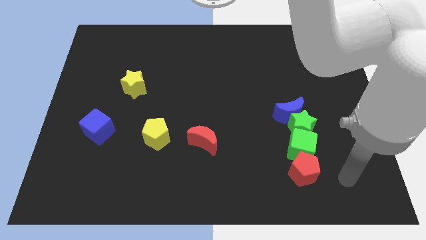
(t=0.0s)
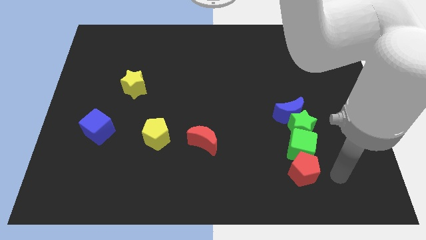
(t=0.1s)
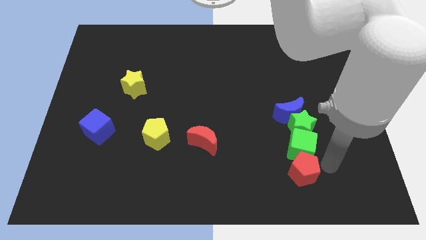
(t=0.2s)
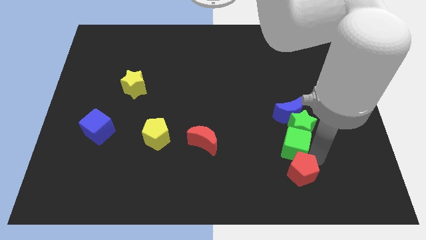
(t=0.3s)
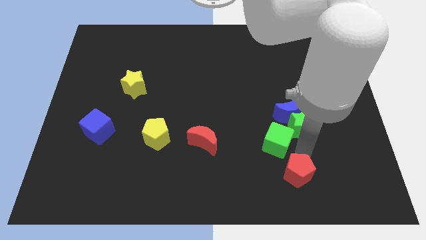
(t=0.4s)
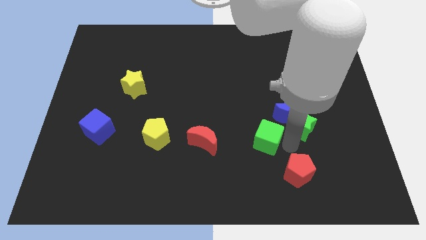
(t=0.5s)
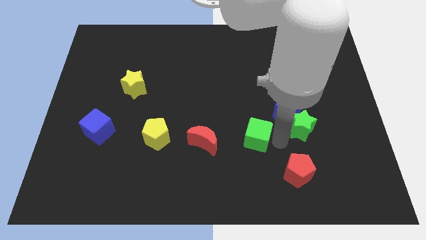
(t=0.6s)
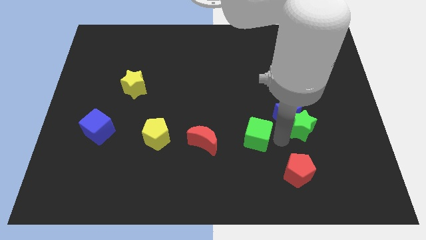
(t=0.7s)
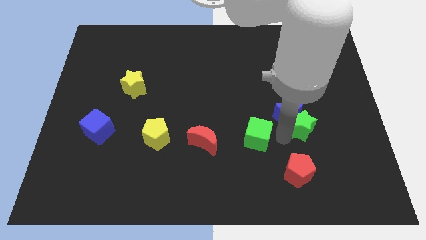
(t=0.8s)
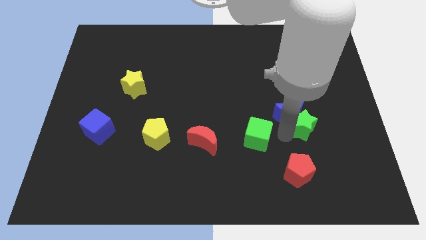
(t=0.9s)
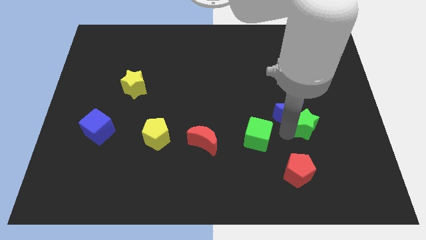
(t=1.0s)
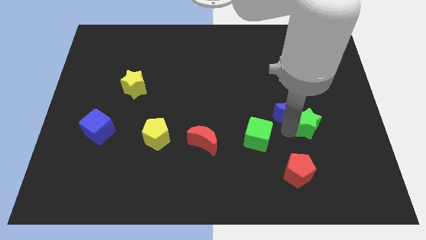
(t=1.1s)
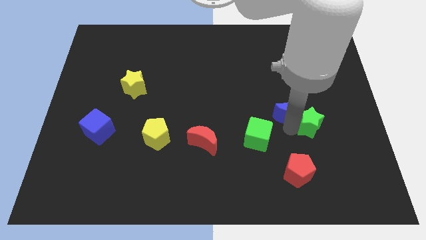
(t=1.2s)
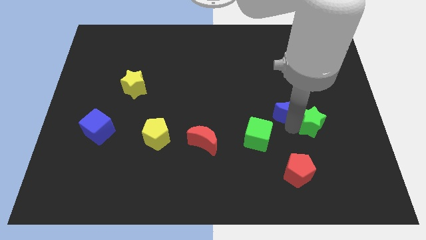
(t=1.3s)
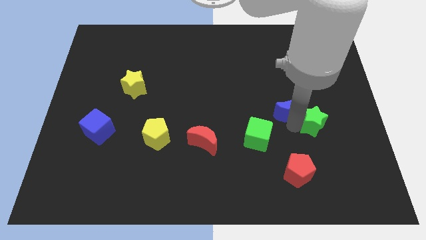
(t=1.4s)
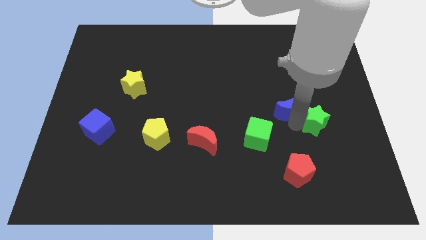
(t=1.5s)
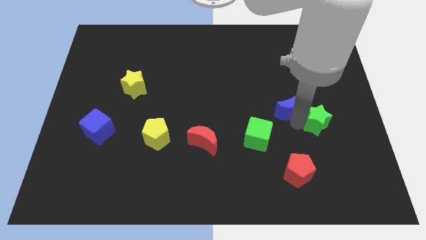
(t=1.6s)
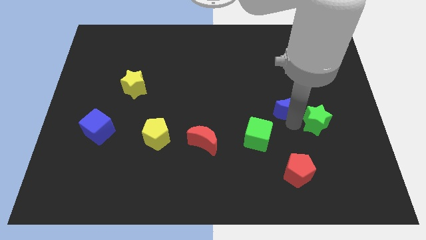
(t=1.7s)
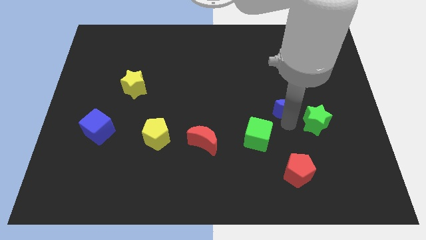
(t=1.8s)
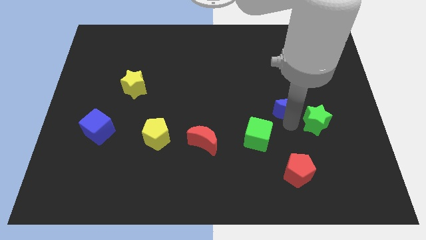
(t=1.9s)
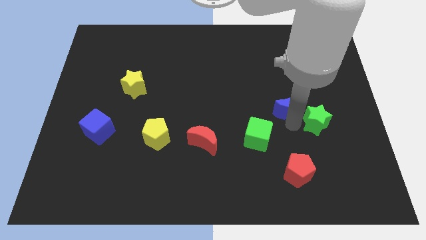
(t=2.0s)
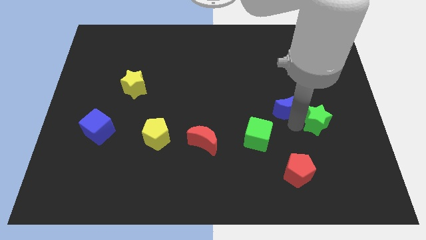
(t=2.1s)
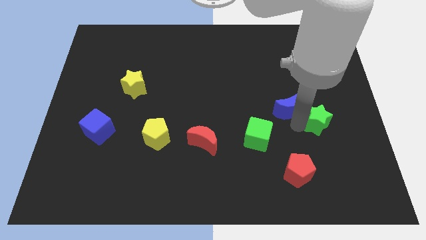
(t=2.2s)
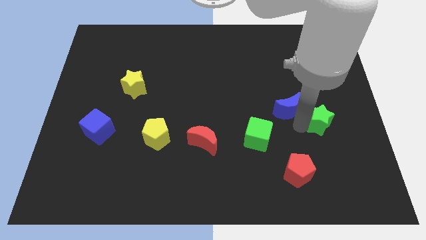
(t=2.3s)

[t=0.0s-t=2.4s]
move the green star away from the blue moon and green cube

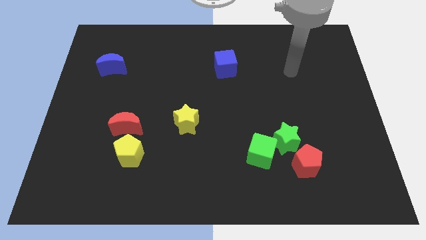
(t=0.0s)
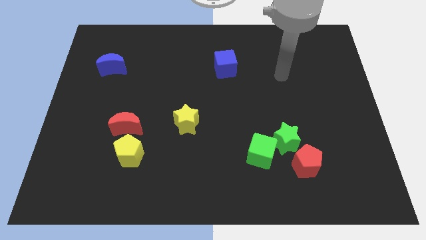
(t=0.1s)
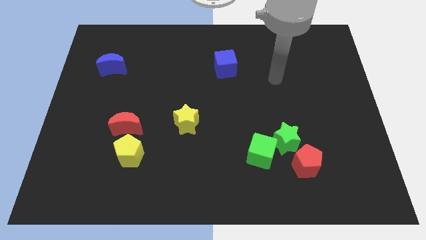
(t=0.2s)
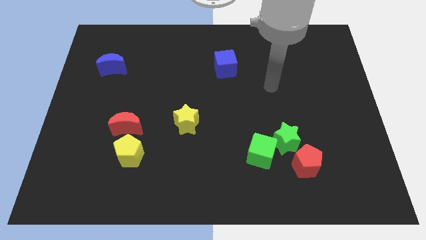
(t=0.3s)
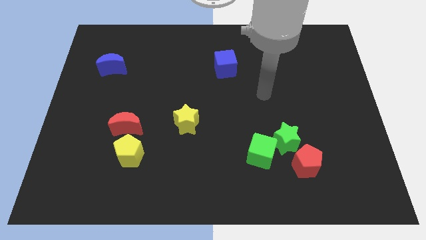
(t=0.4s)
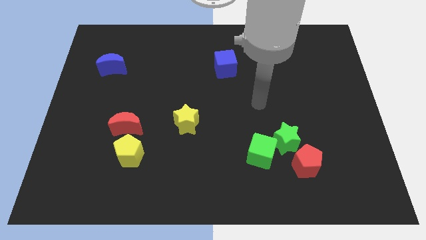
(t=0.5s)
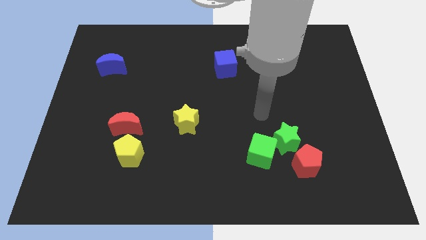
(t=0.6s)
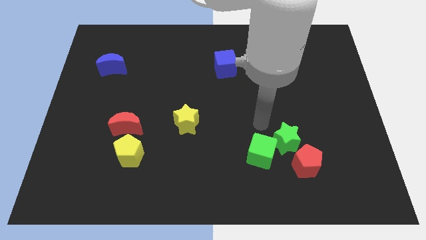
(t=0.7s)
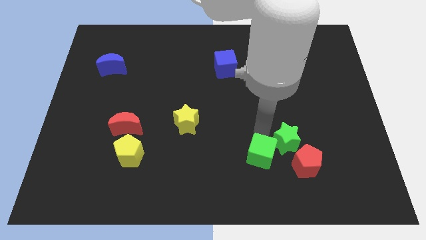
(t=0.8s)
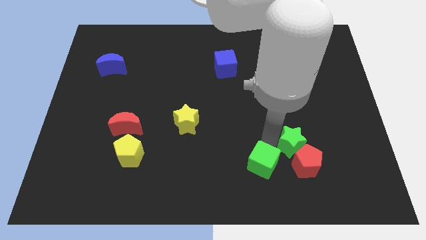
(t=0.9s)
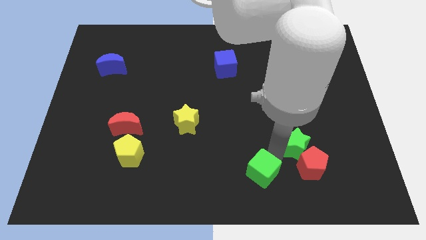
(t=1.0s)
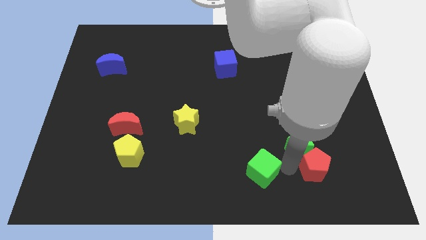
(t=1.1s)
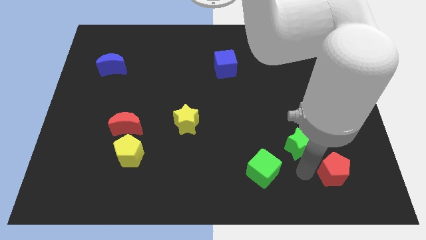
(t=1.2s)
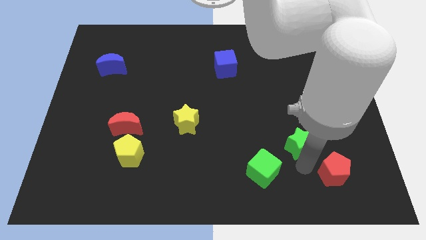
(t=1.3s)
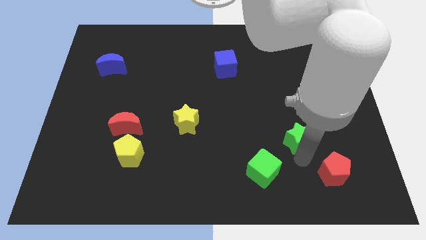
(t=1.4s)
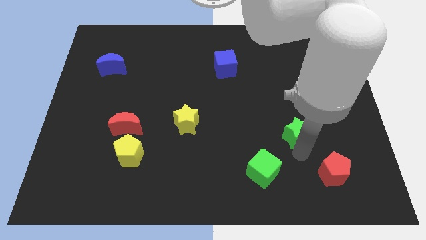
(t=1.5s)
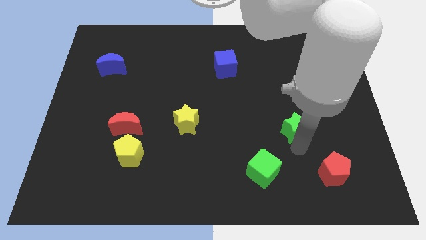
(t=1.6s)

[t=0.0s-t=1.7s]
separate the green star from the green cube and red pentagon

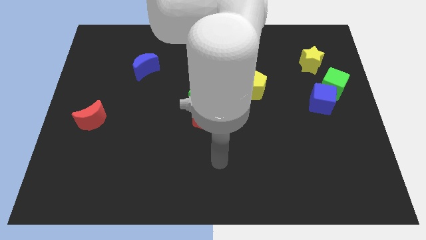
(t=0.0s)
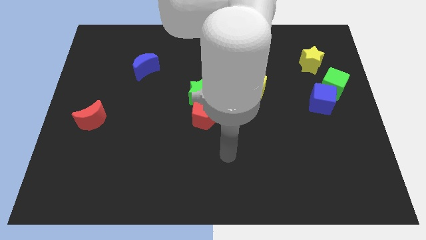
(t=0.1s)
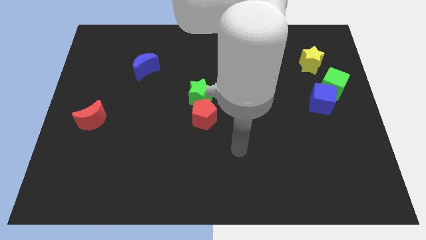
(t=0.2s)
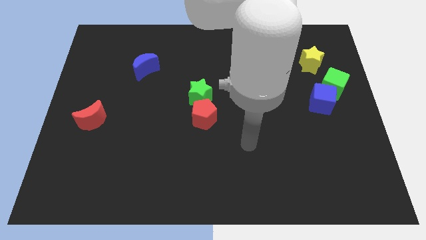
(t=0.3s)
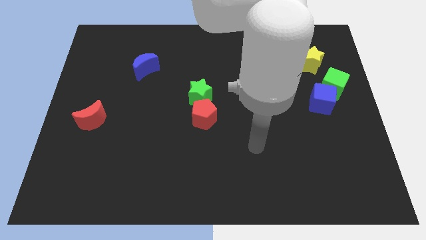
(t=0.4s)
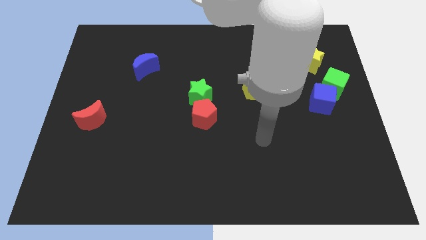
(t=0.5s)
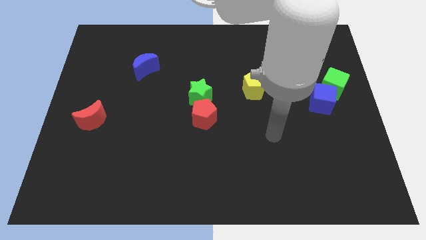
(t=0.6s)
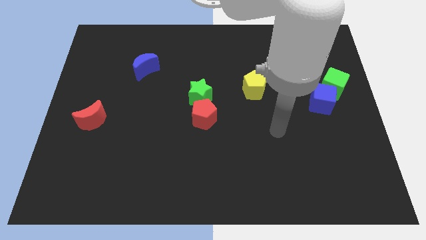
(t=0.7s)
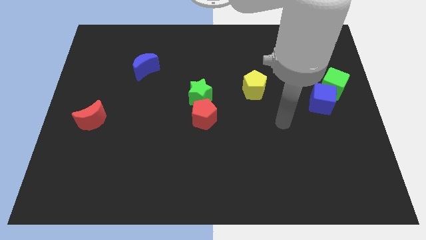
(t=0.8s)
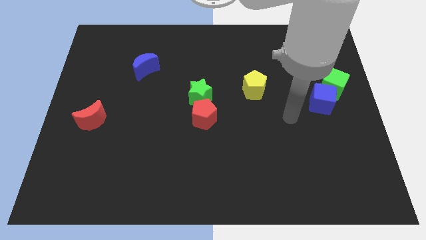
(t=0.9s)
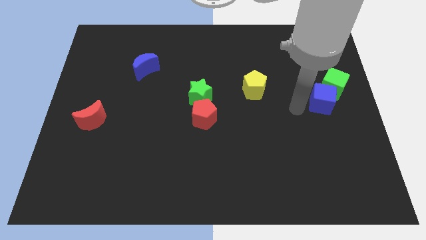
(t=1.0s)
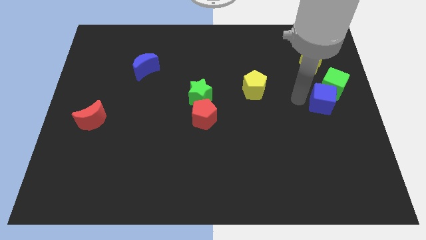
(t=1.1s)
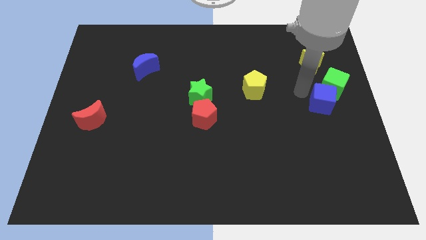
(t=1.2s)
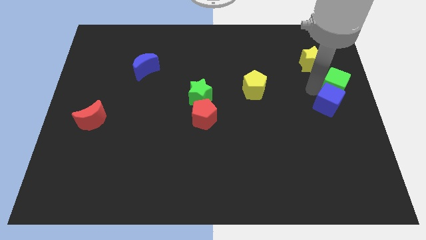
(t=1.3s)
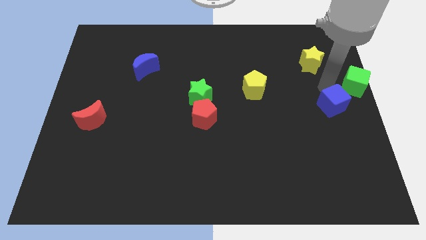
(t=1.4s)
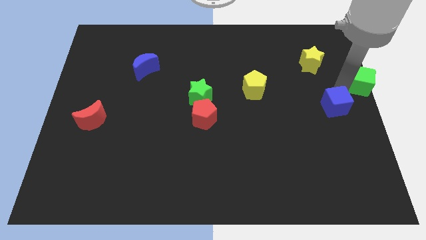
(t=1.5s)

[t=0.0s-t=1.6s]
move the blue cube away from the green cube

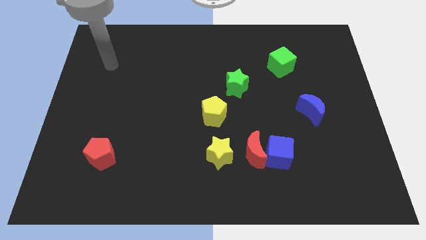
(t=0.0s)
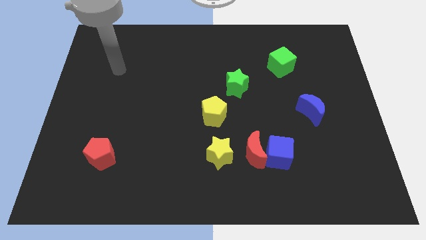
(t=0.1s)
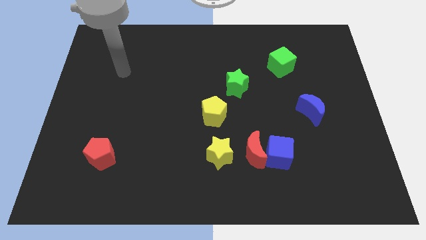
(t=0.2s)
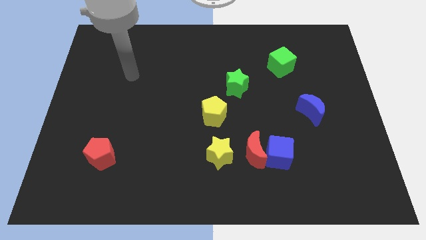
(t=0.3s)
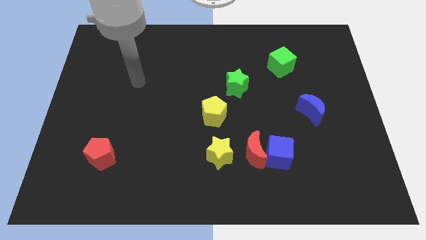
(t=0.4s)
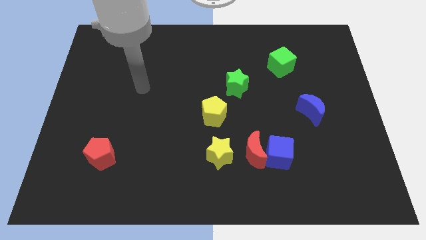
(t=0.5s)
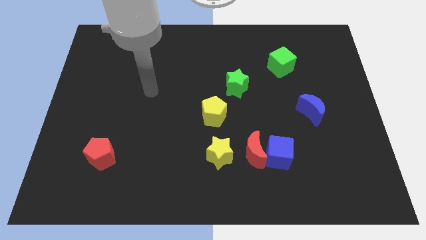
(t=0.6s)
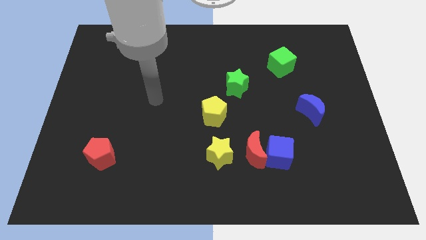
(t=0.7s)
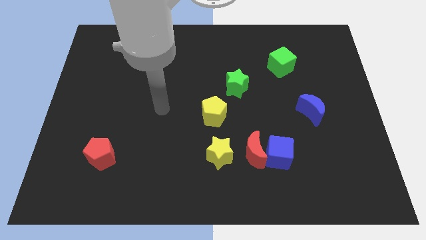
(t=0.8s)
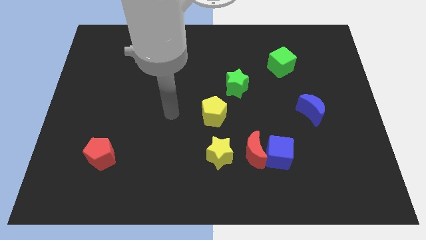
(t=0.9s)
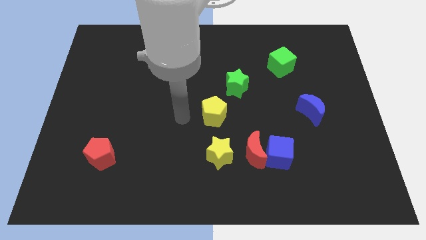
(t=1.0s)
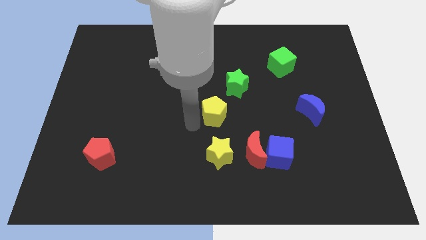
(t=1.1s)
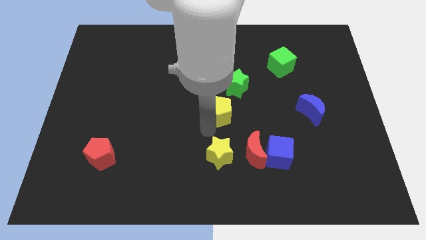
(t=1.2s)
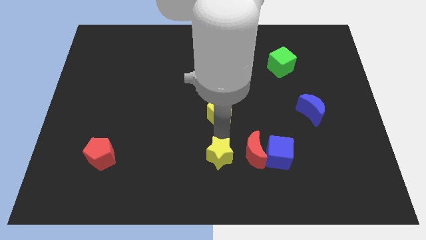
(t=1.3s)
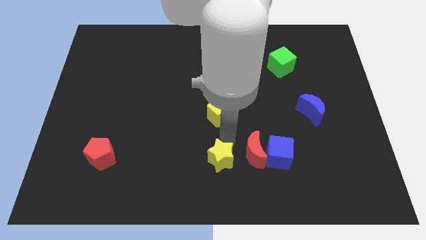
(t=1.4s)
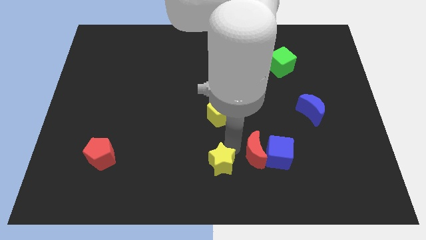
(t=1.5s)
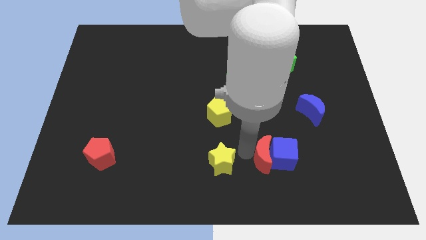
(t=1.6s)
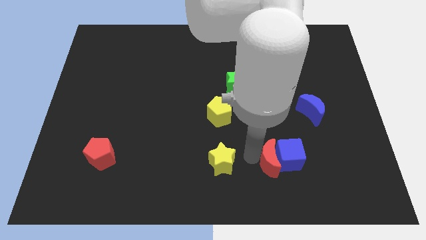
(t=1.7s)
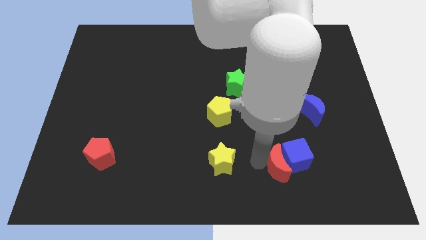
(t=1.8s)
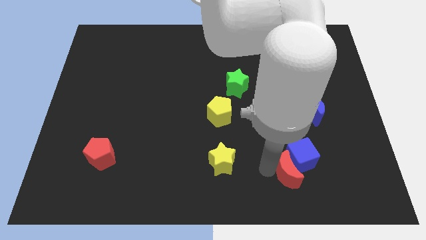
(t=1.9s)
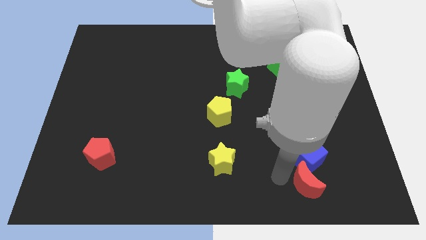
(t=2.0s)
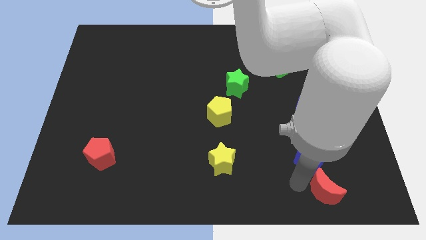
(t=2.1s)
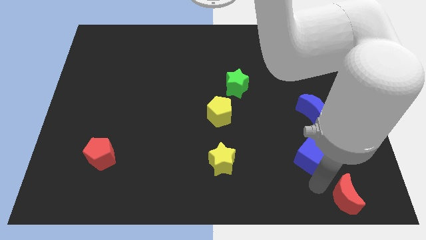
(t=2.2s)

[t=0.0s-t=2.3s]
separate the blue cube from the red moon

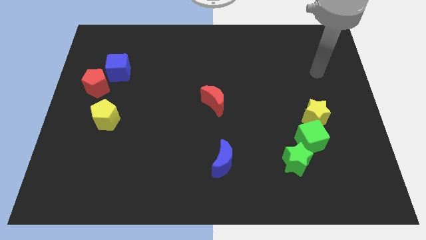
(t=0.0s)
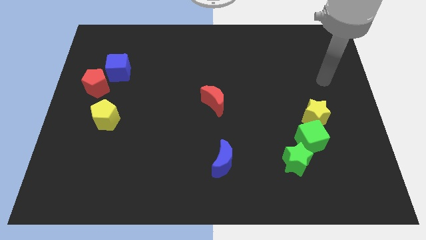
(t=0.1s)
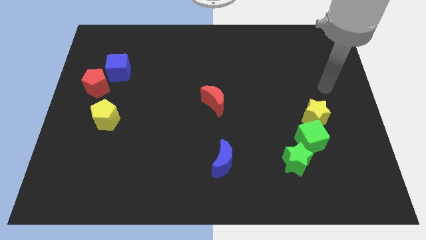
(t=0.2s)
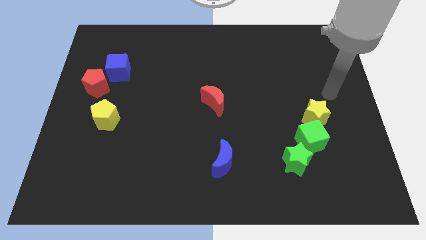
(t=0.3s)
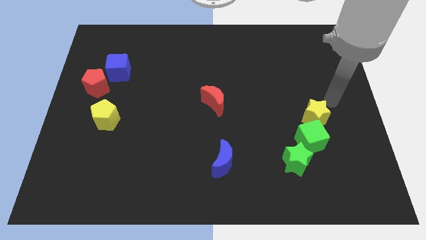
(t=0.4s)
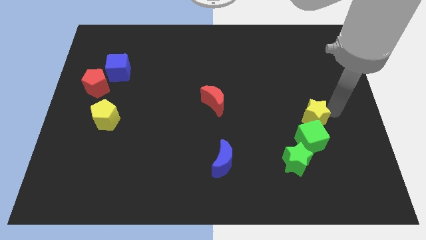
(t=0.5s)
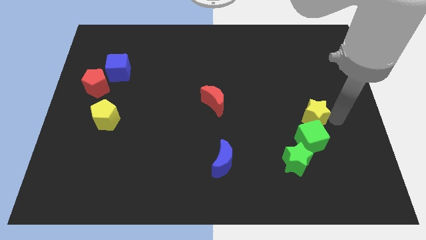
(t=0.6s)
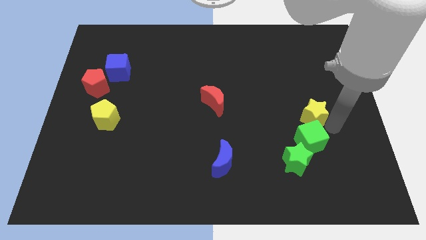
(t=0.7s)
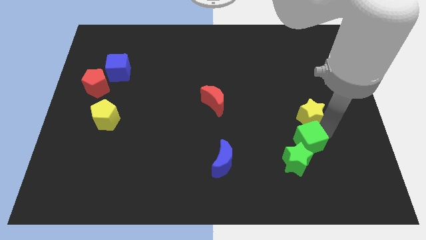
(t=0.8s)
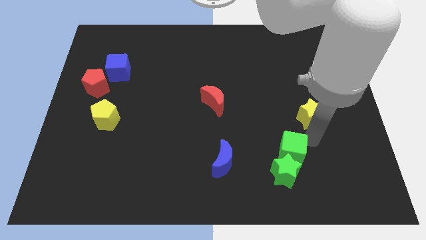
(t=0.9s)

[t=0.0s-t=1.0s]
pull the yellow star apart from the green cube

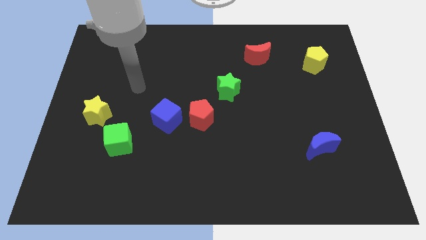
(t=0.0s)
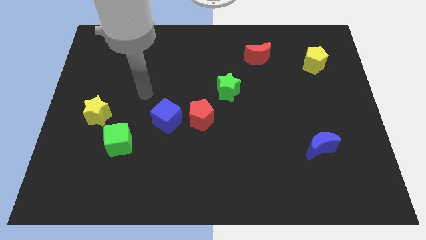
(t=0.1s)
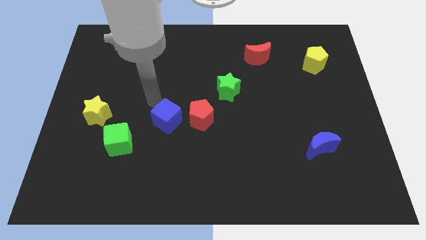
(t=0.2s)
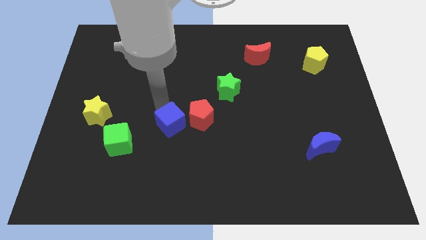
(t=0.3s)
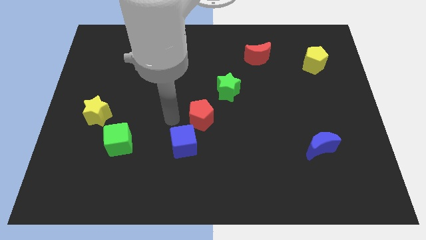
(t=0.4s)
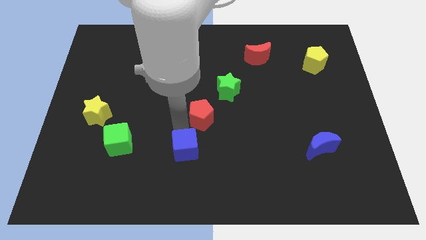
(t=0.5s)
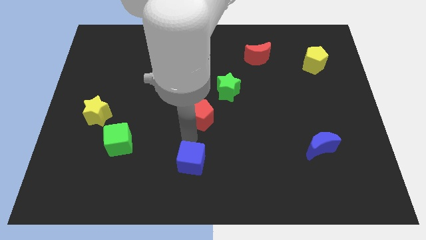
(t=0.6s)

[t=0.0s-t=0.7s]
separate the red pentagon from the blue cube
